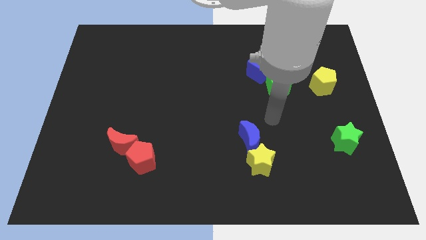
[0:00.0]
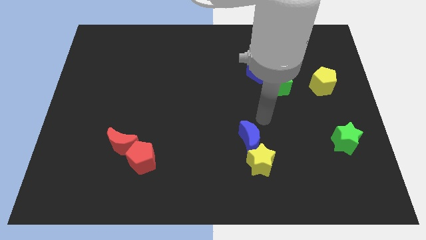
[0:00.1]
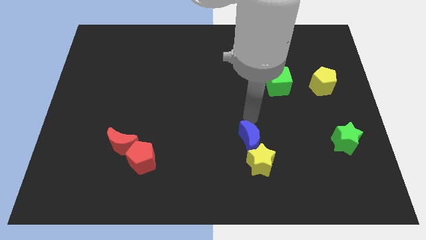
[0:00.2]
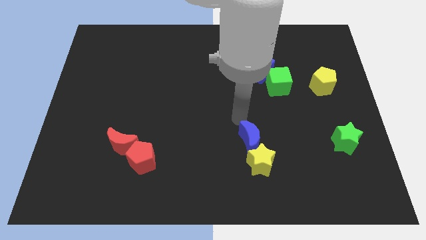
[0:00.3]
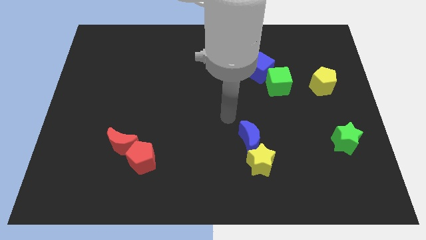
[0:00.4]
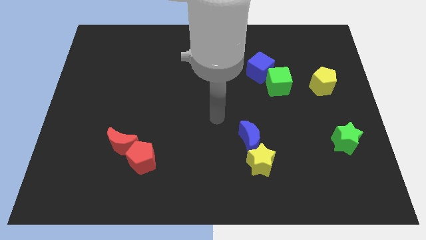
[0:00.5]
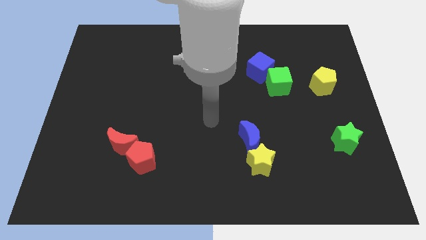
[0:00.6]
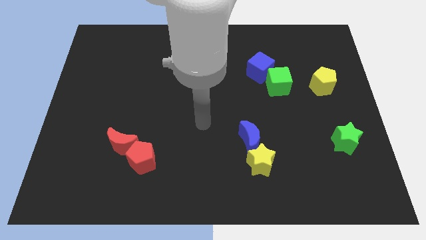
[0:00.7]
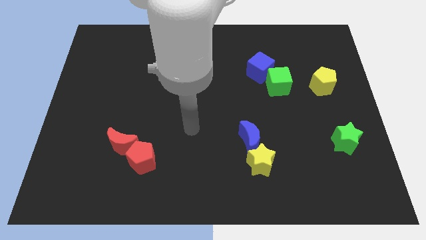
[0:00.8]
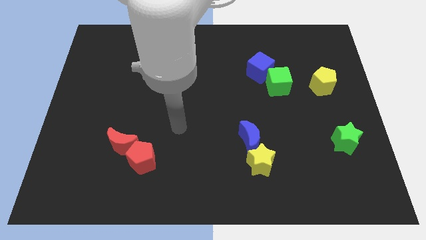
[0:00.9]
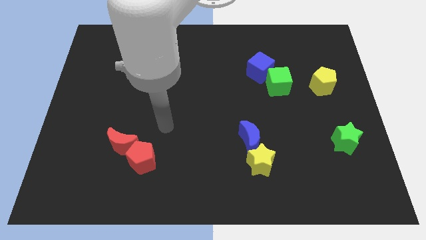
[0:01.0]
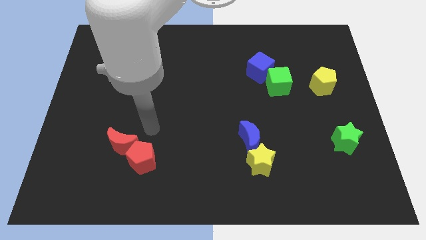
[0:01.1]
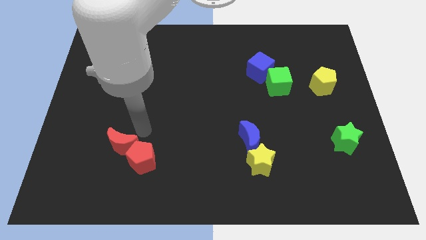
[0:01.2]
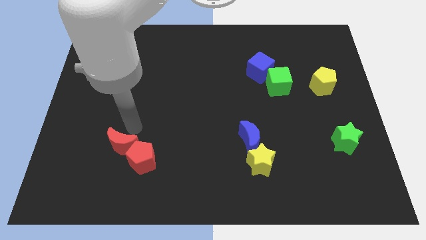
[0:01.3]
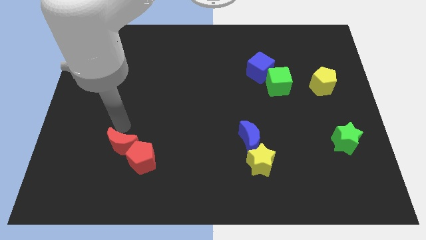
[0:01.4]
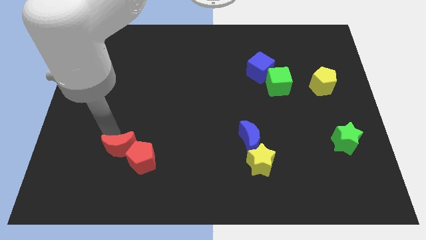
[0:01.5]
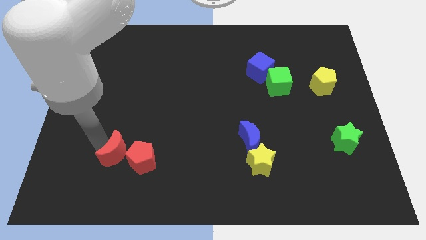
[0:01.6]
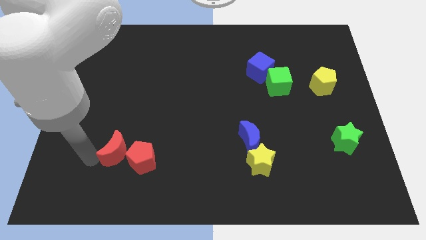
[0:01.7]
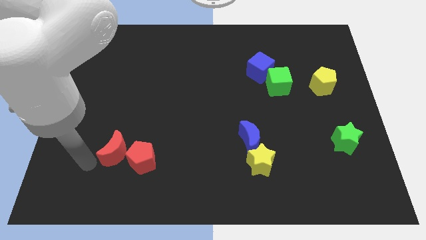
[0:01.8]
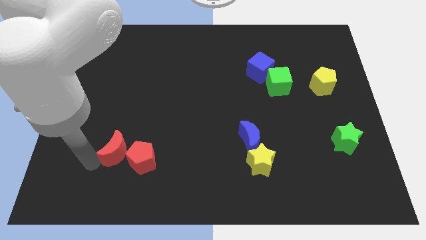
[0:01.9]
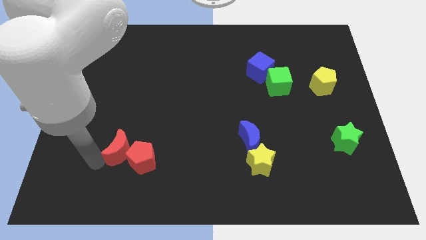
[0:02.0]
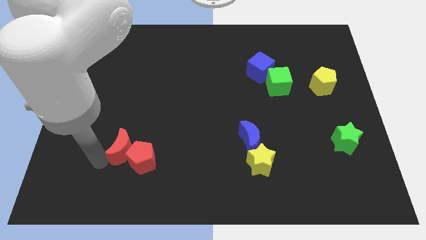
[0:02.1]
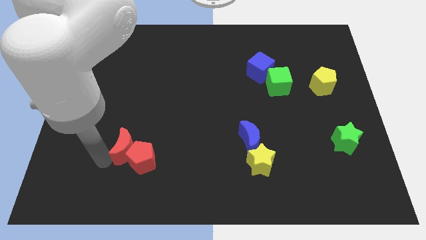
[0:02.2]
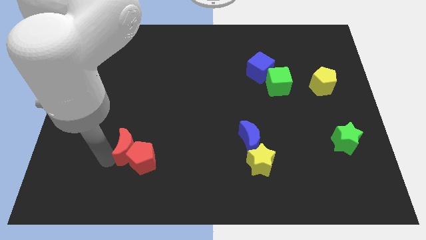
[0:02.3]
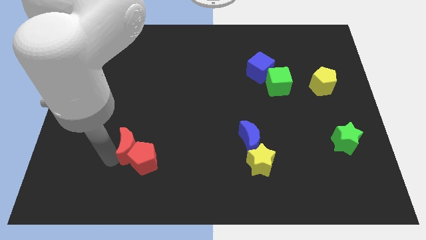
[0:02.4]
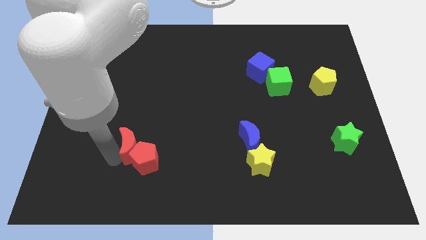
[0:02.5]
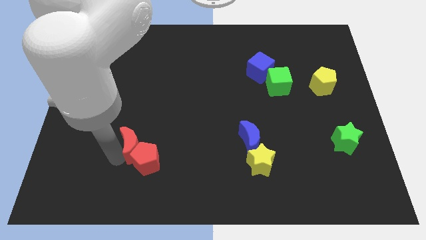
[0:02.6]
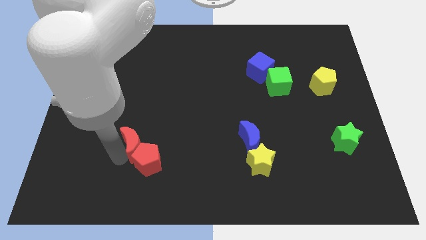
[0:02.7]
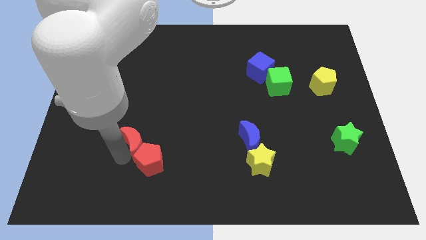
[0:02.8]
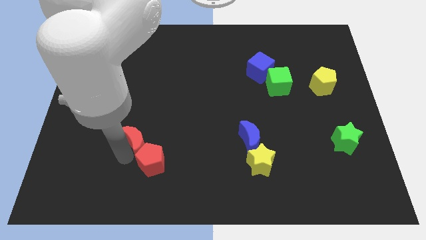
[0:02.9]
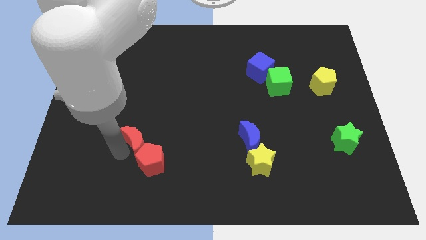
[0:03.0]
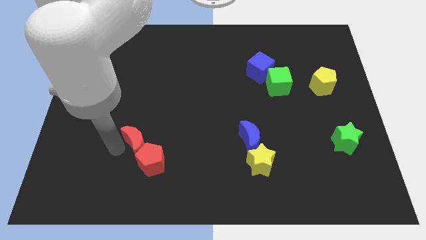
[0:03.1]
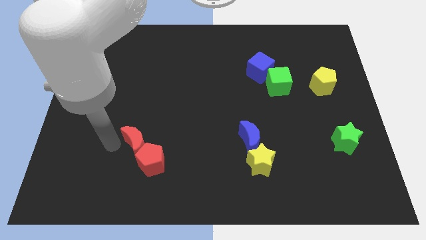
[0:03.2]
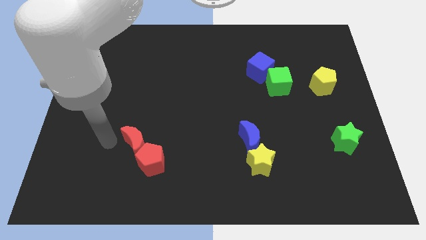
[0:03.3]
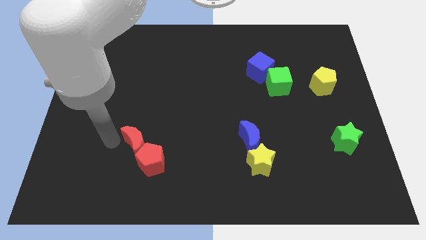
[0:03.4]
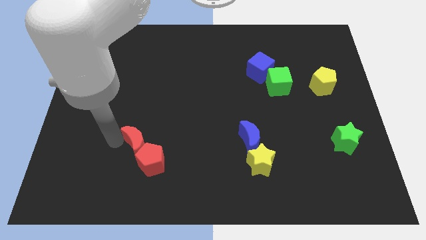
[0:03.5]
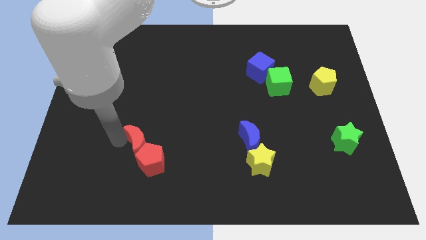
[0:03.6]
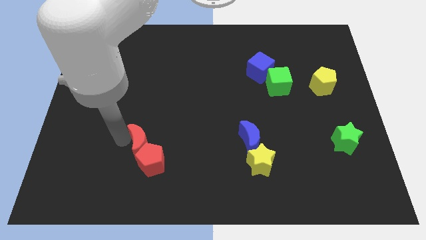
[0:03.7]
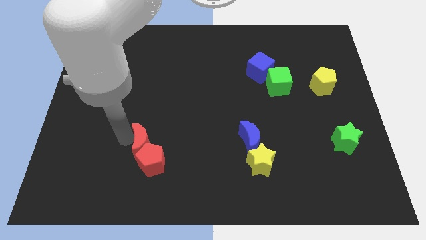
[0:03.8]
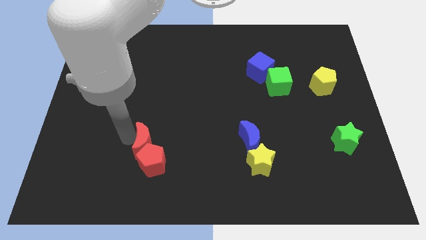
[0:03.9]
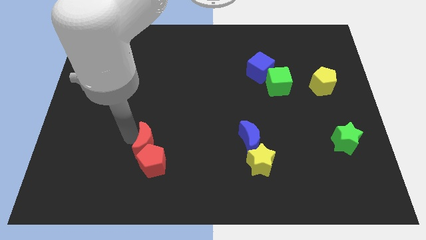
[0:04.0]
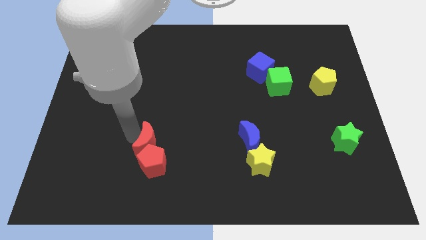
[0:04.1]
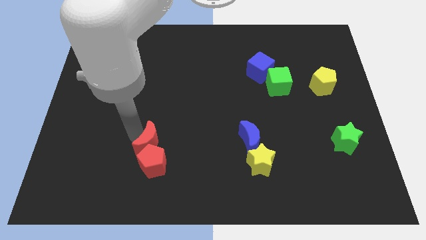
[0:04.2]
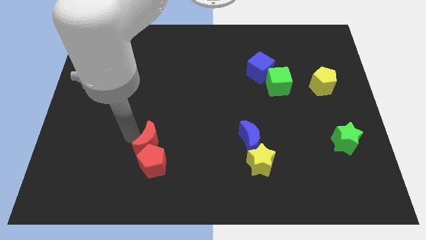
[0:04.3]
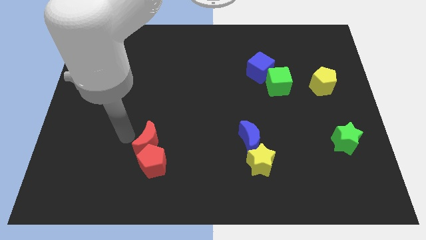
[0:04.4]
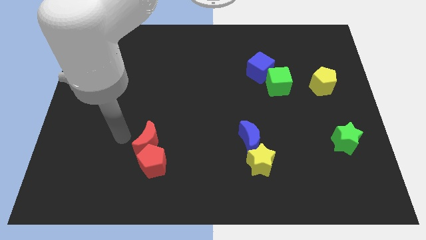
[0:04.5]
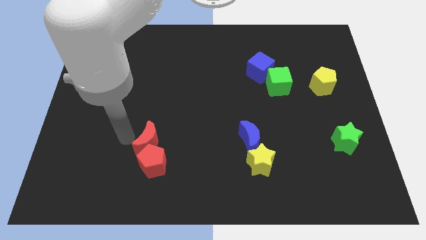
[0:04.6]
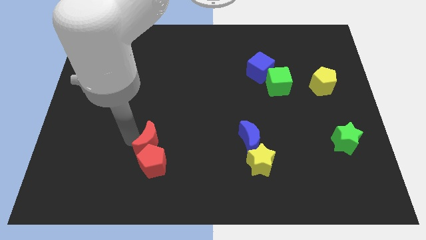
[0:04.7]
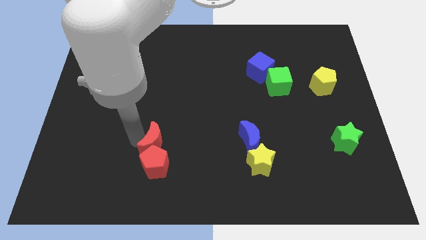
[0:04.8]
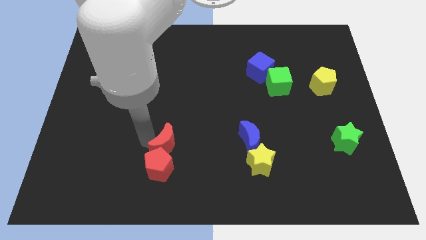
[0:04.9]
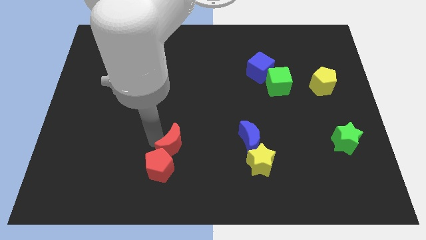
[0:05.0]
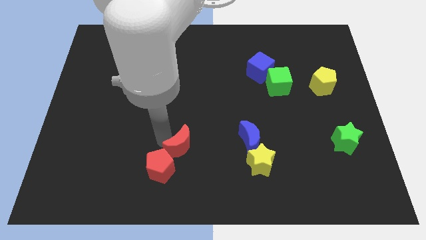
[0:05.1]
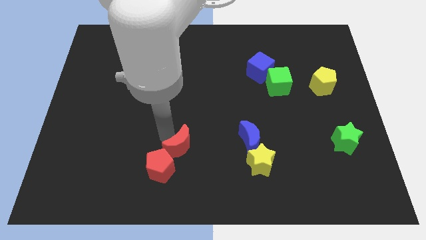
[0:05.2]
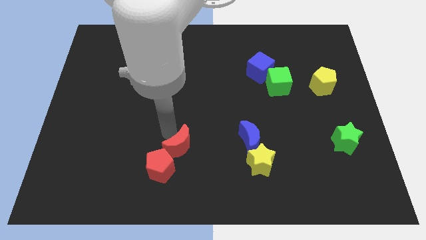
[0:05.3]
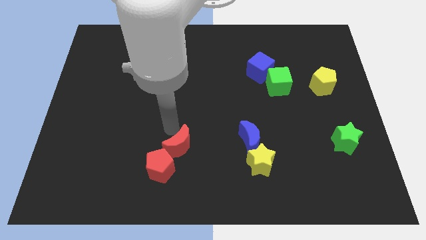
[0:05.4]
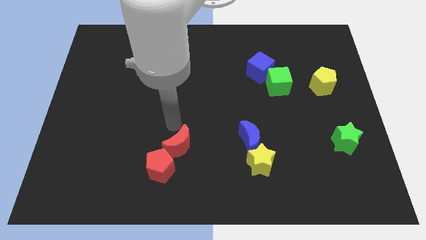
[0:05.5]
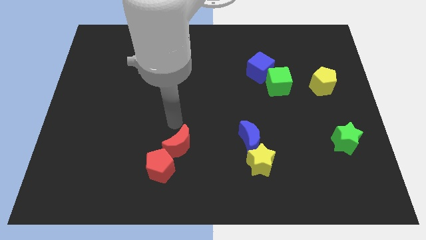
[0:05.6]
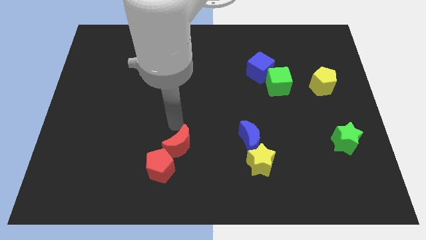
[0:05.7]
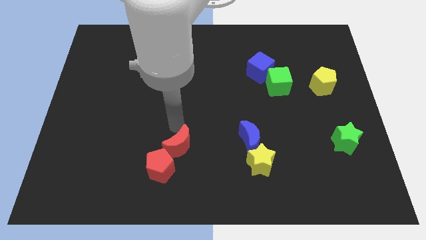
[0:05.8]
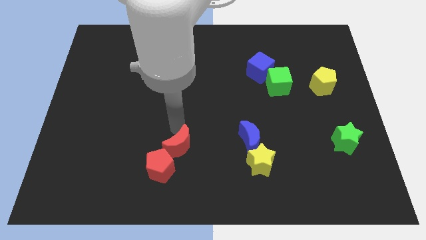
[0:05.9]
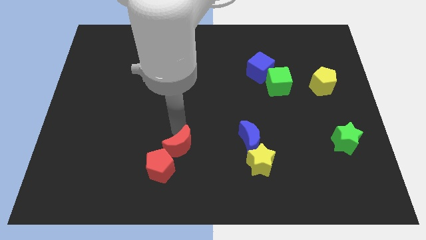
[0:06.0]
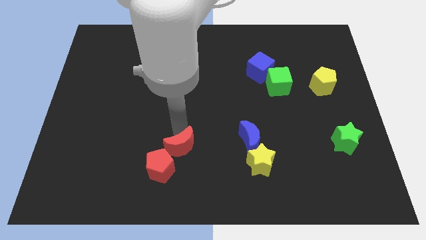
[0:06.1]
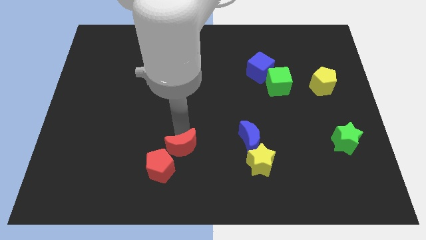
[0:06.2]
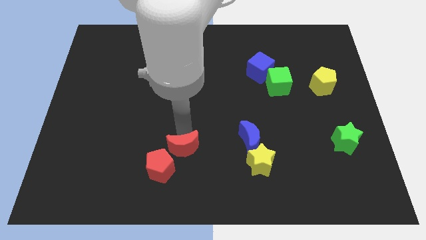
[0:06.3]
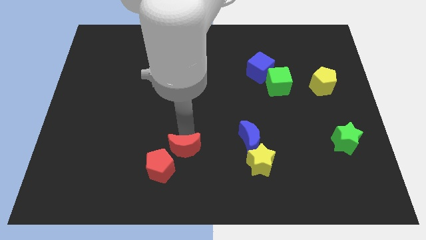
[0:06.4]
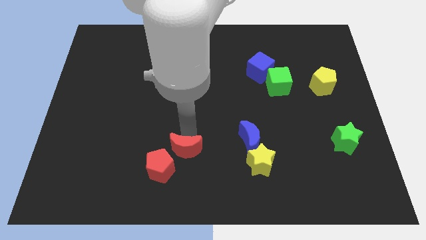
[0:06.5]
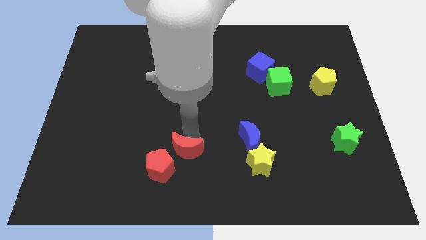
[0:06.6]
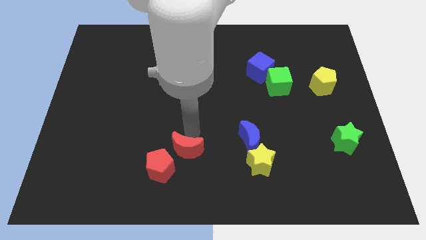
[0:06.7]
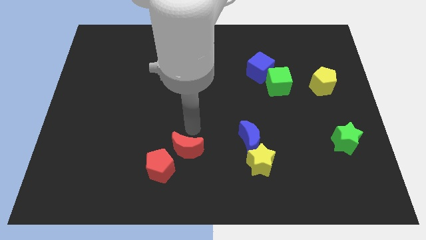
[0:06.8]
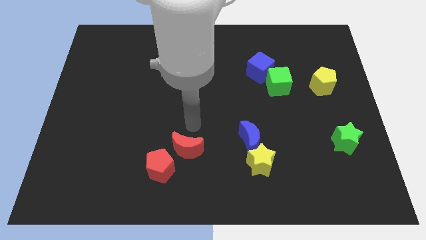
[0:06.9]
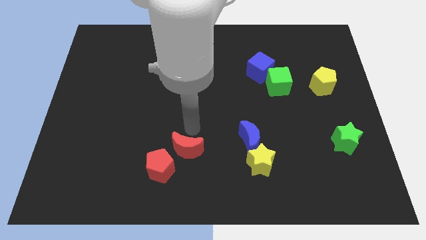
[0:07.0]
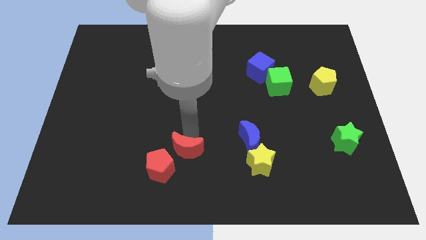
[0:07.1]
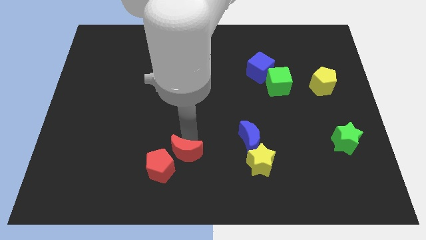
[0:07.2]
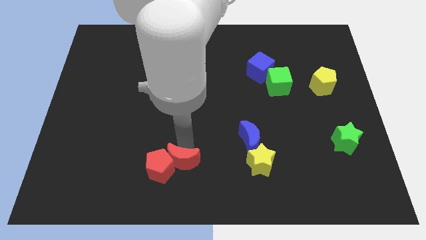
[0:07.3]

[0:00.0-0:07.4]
push the red moon to the bottom
